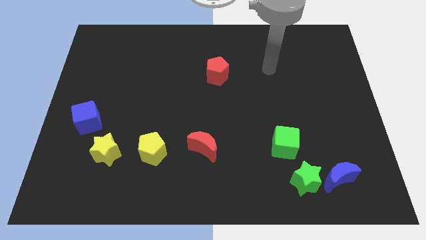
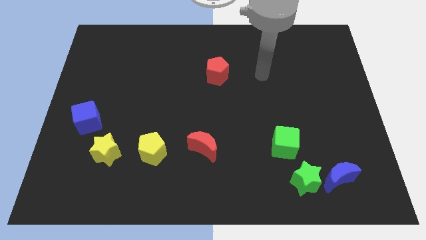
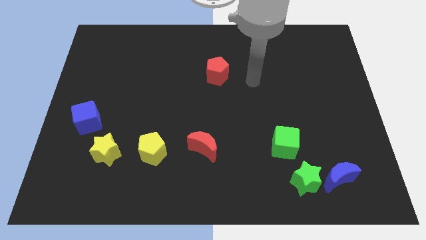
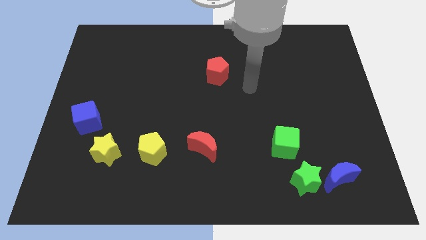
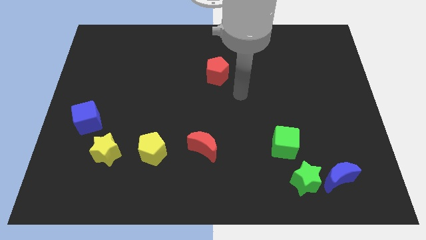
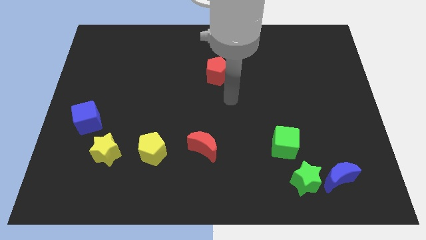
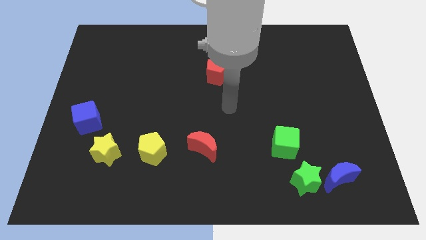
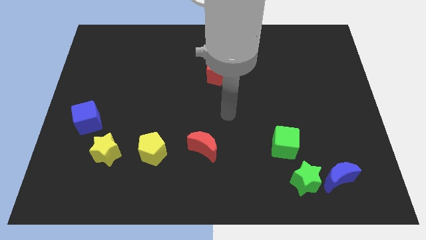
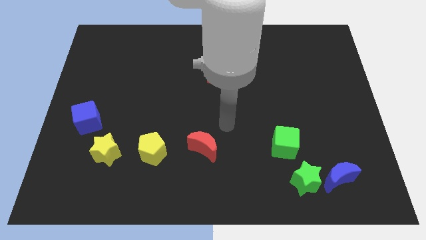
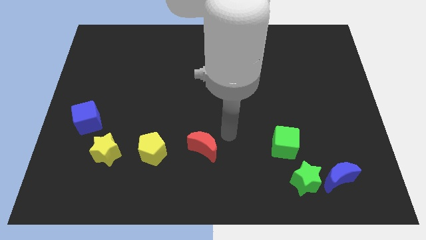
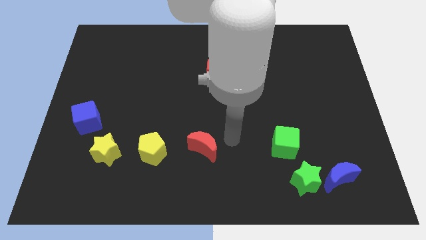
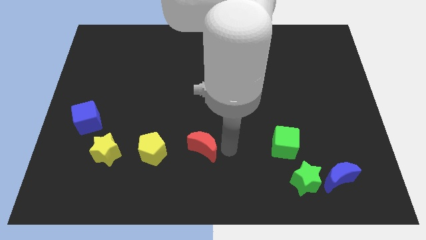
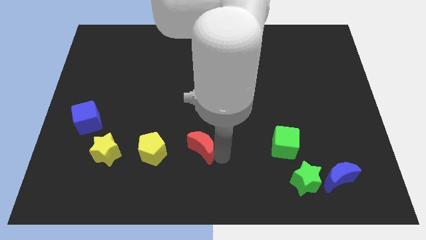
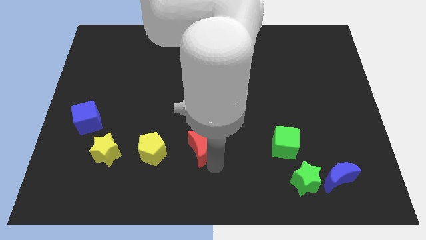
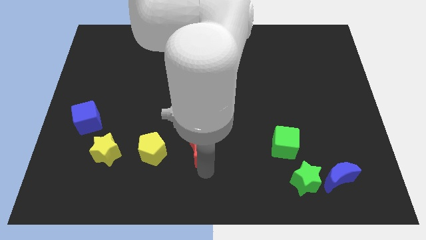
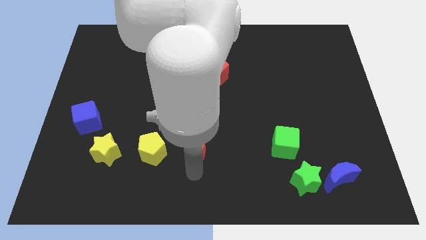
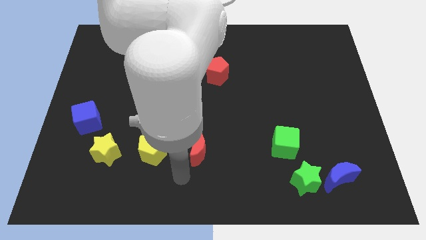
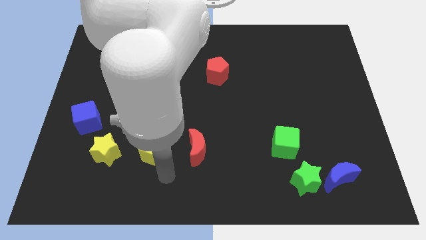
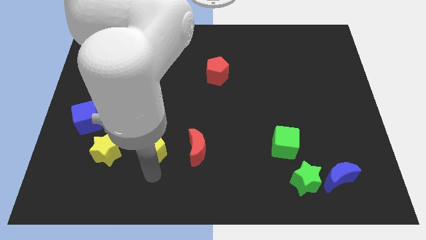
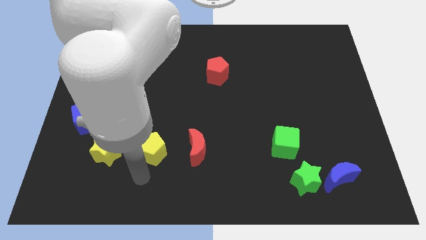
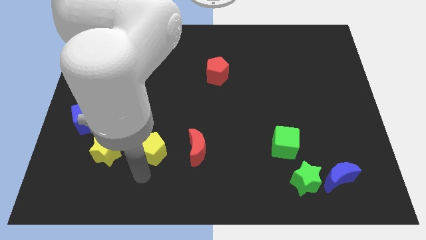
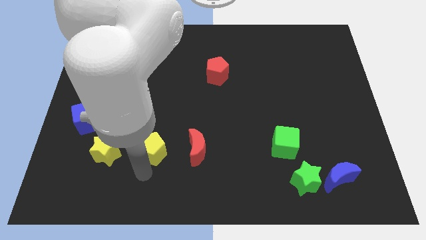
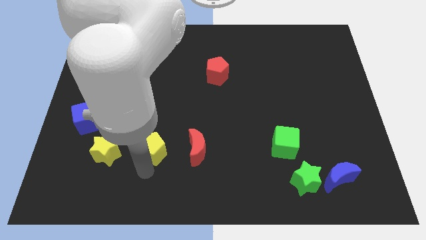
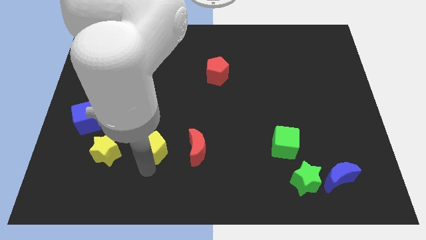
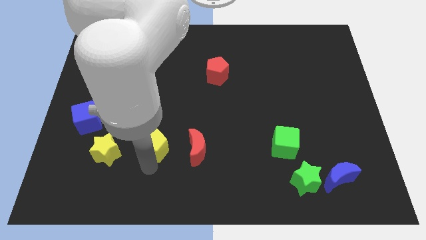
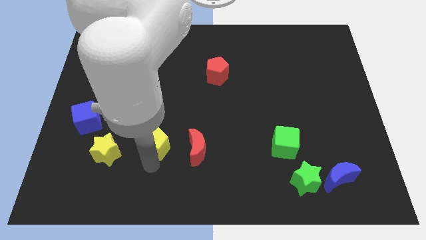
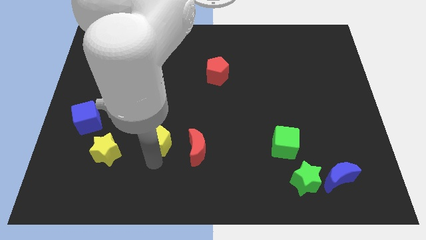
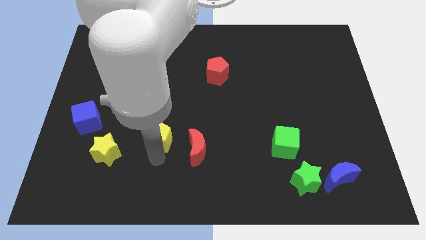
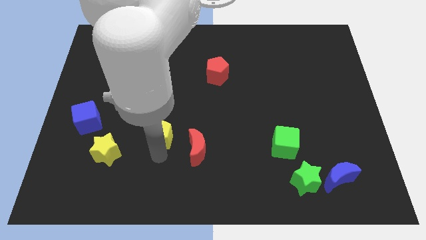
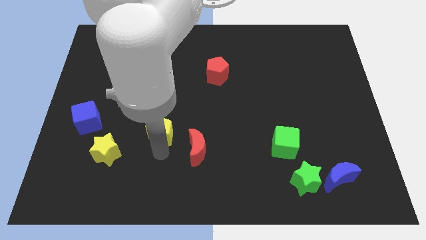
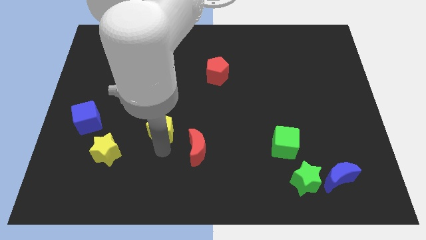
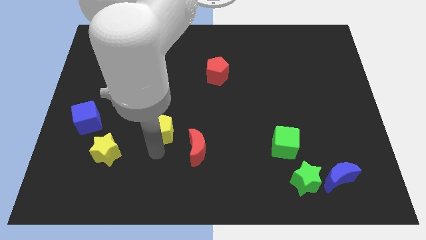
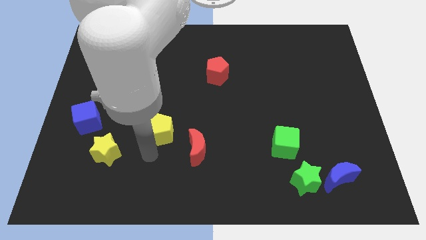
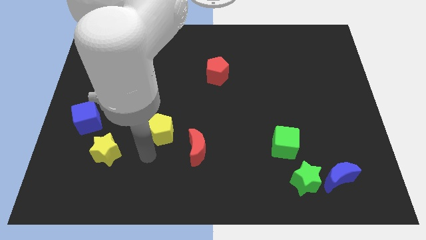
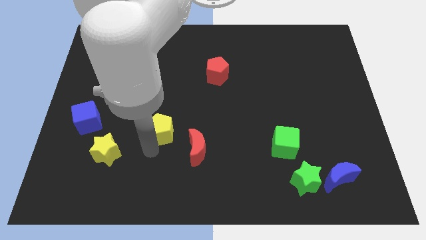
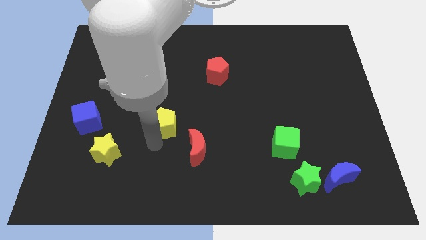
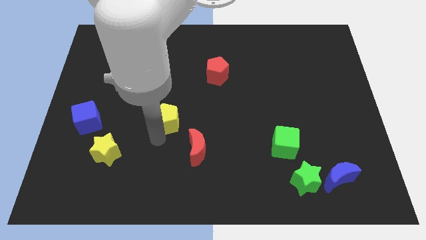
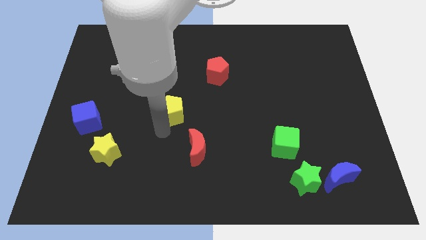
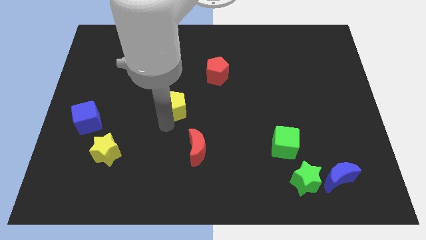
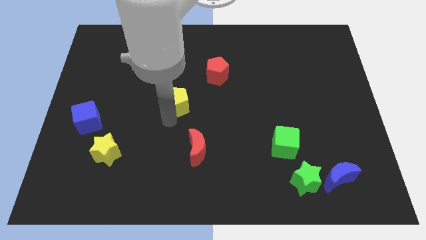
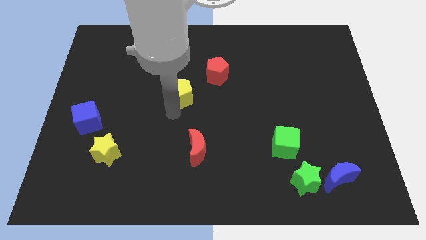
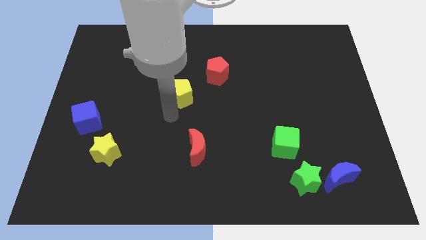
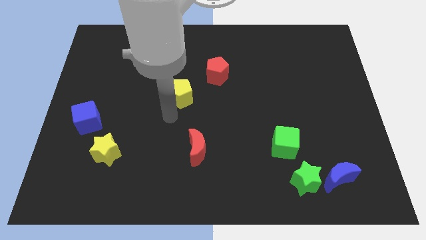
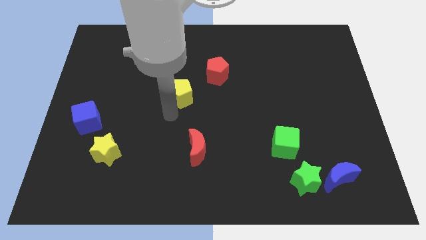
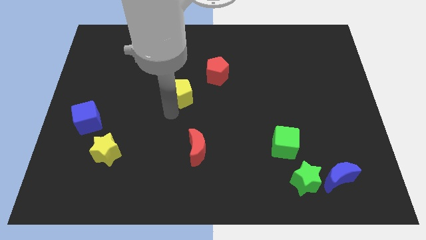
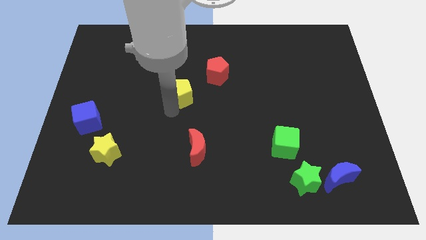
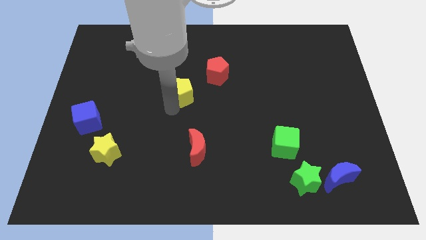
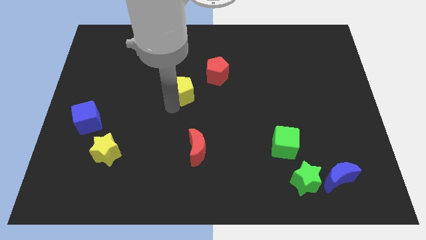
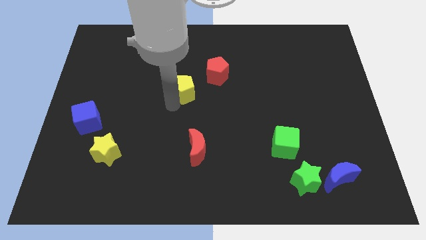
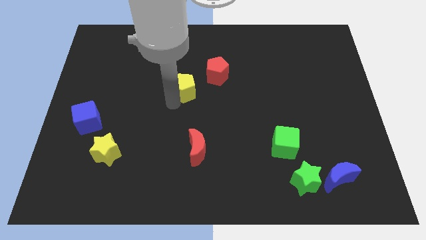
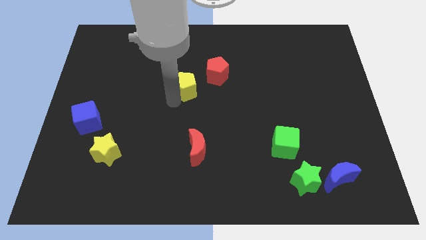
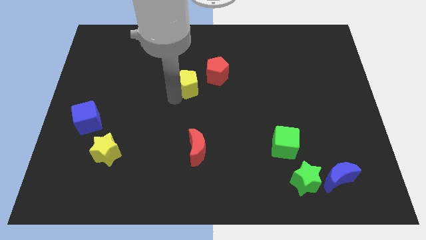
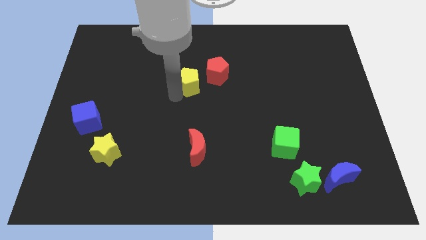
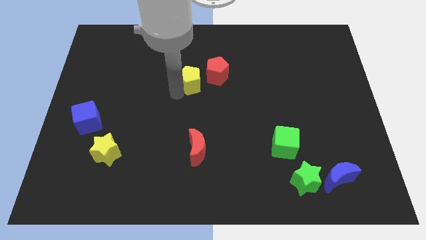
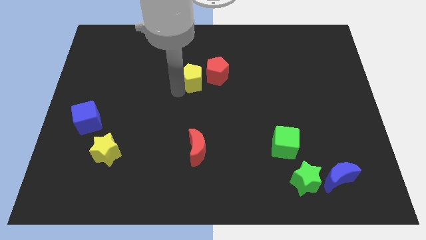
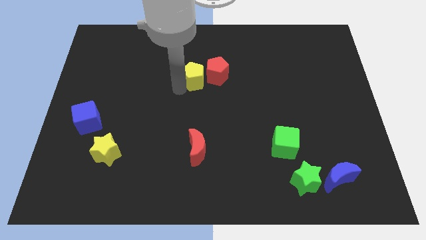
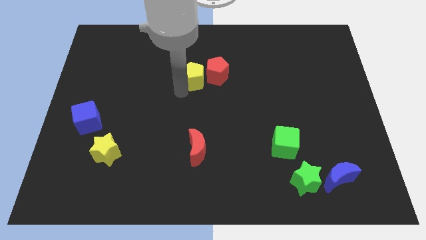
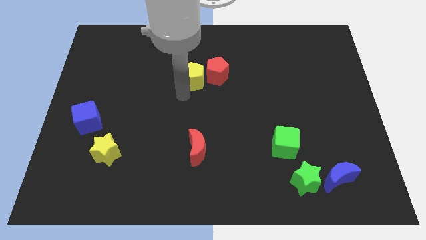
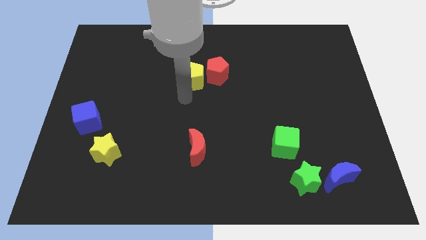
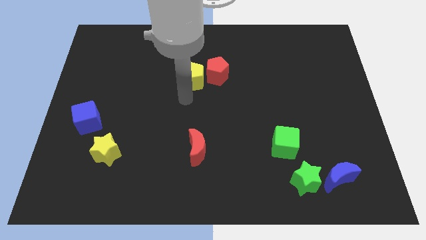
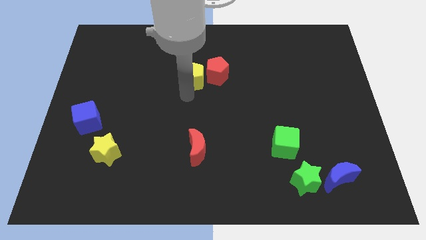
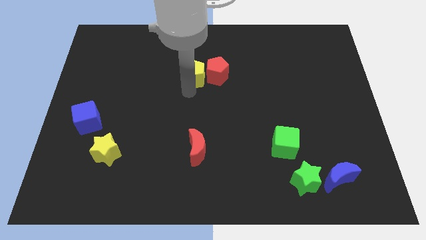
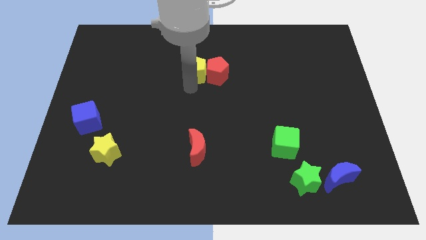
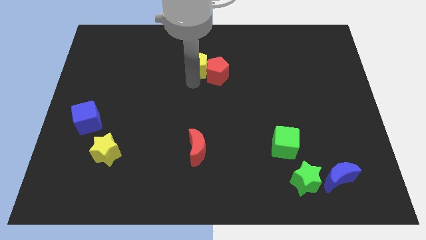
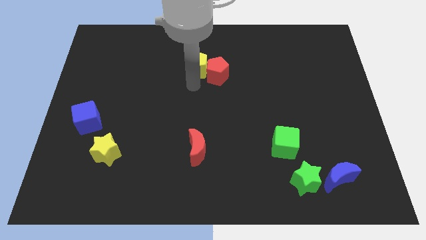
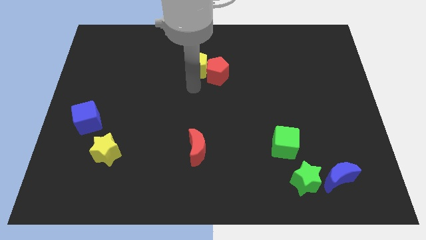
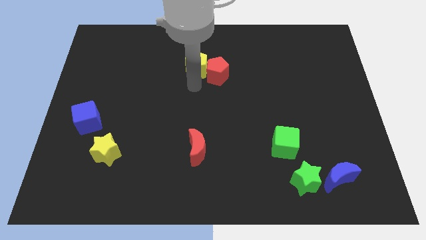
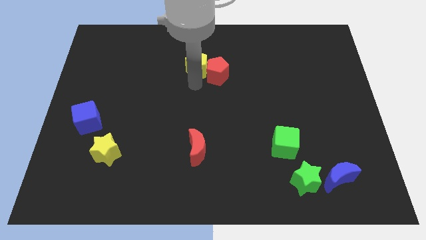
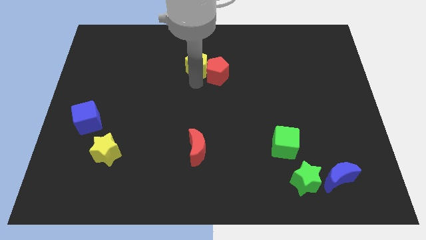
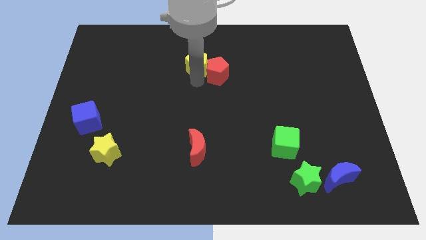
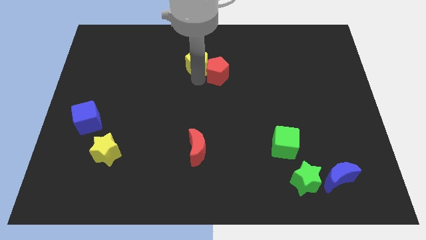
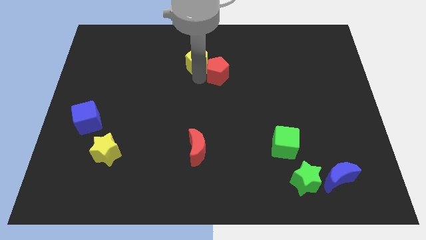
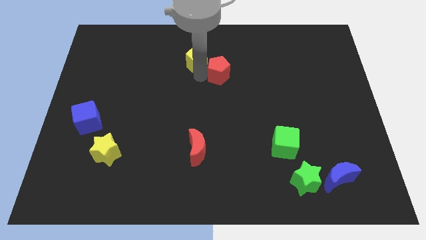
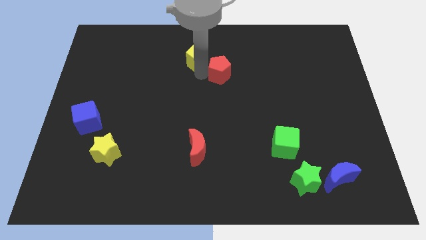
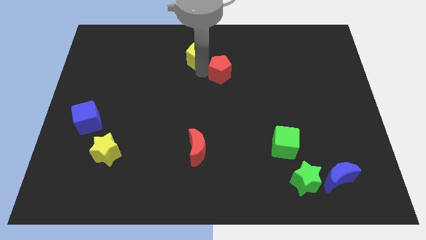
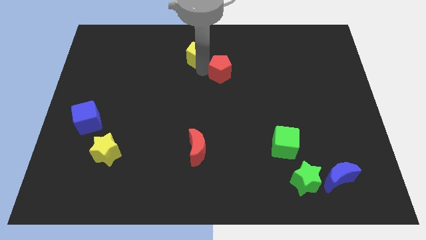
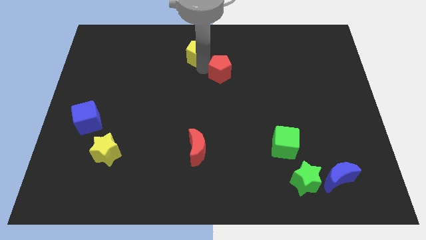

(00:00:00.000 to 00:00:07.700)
put the yellow pentagon to the towards your base

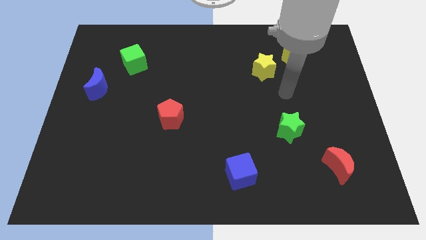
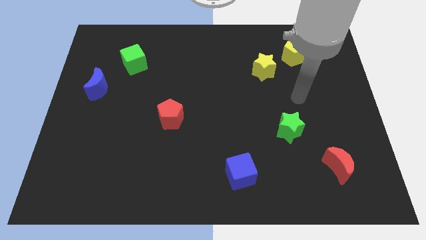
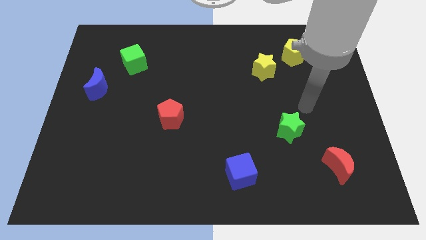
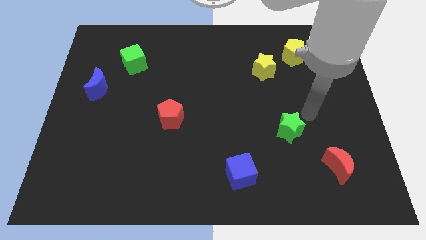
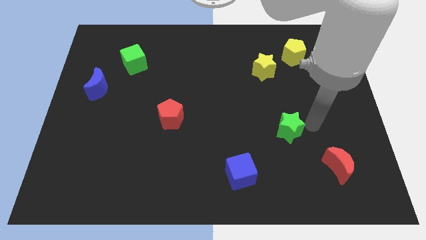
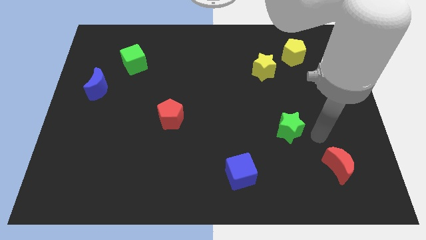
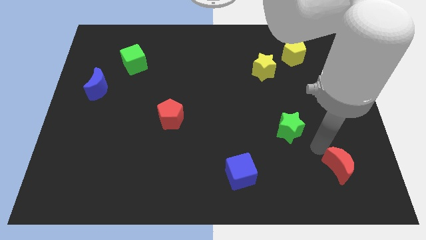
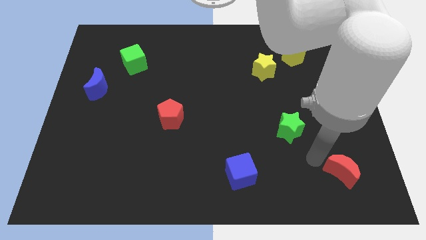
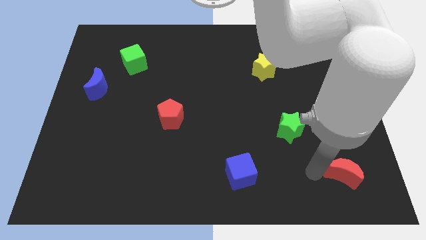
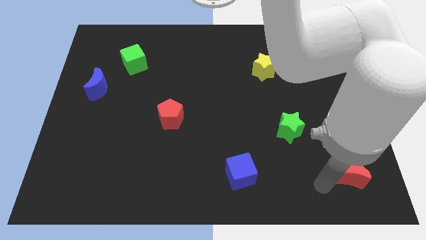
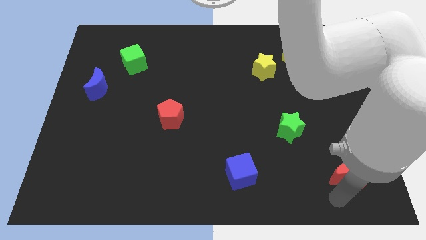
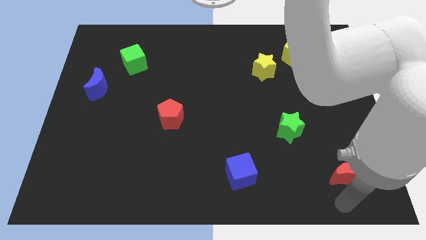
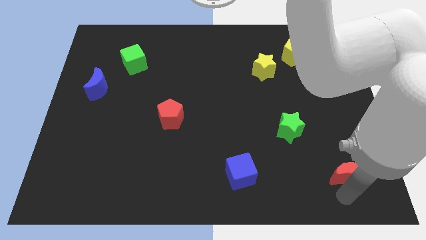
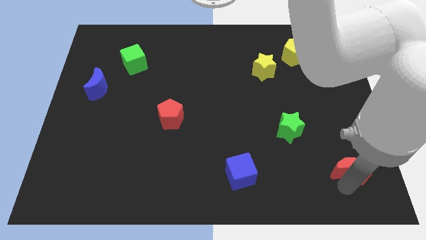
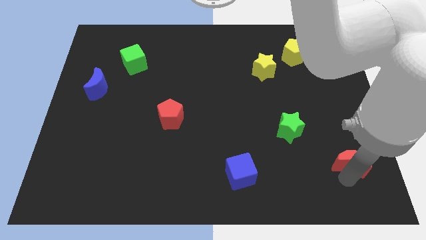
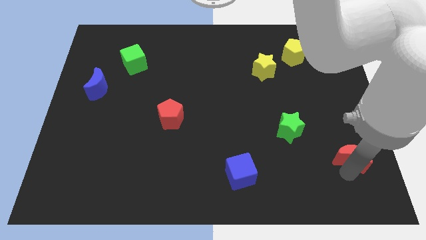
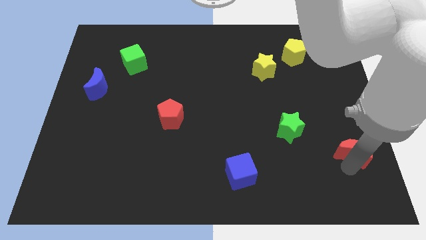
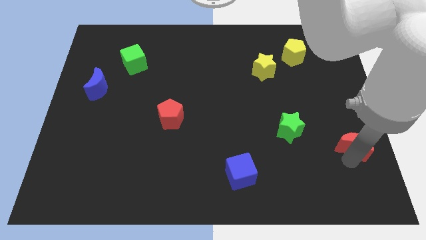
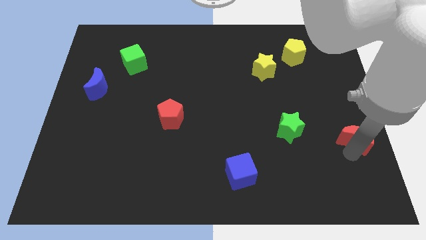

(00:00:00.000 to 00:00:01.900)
slide the red moon to the right side of the board
